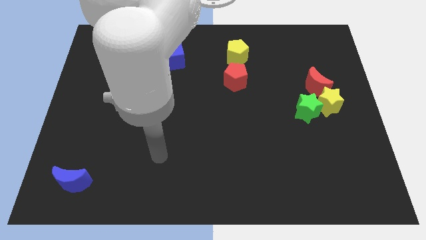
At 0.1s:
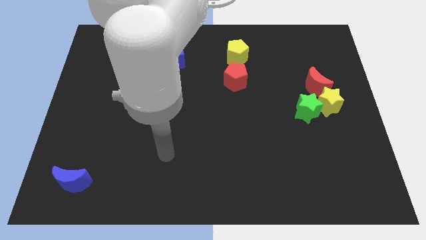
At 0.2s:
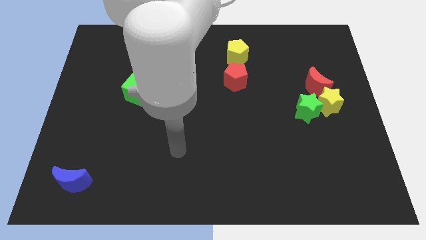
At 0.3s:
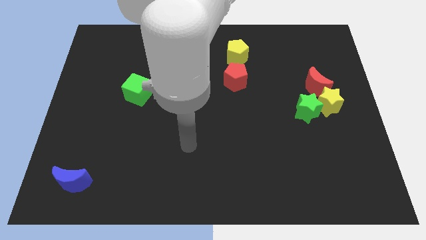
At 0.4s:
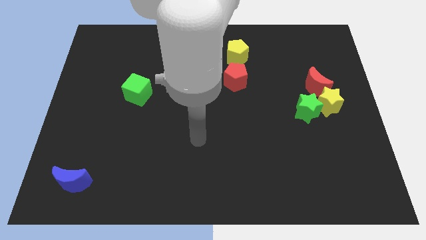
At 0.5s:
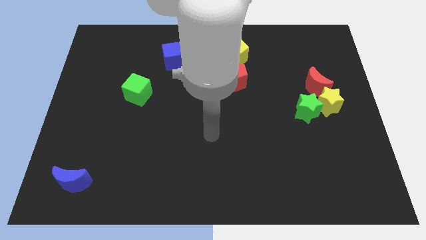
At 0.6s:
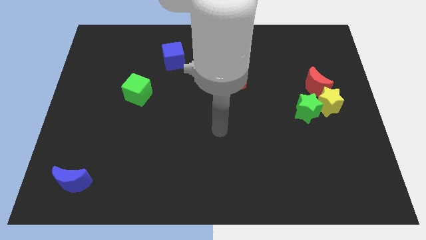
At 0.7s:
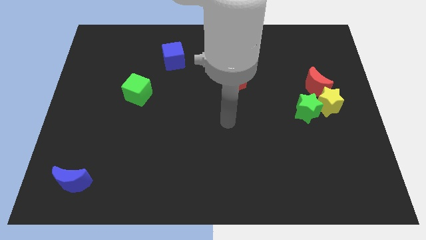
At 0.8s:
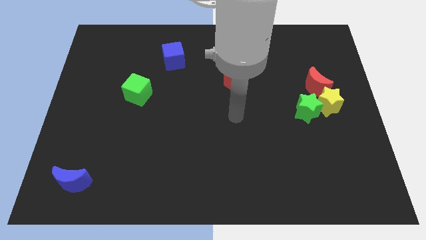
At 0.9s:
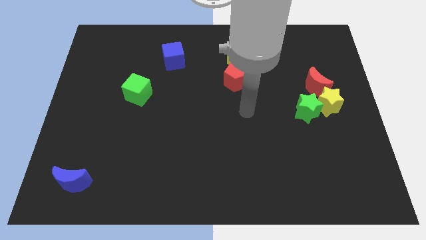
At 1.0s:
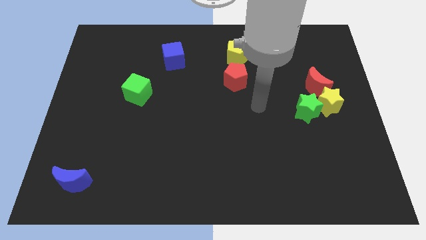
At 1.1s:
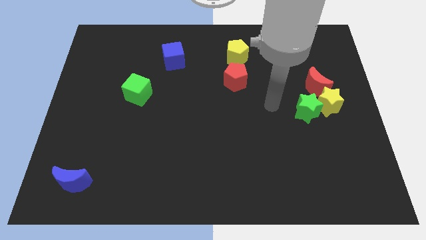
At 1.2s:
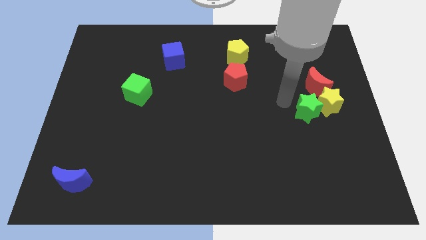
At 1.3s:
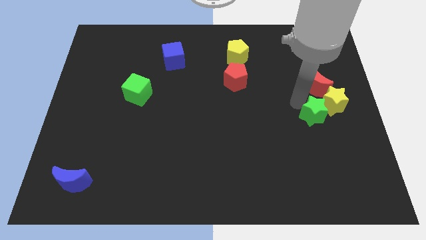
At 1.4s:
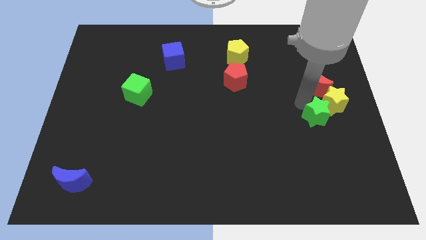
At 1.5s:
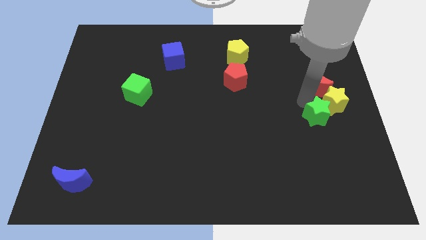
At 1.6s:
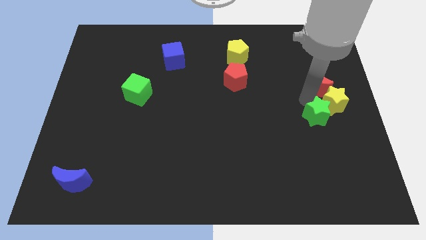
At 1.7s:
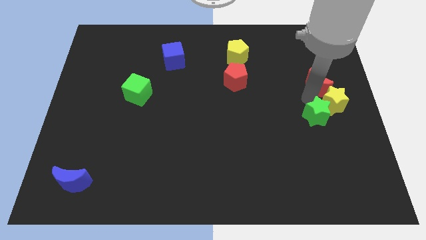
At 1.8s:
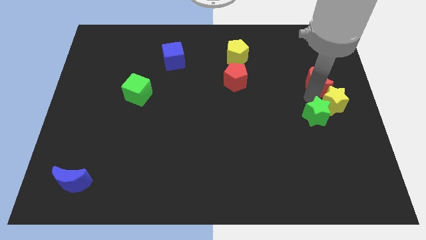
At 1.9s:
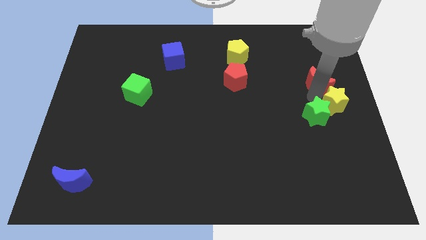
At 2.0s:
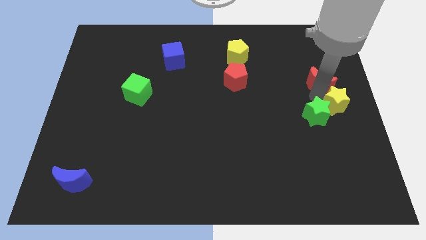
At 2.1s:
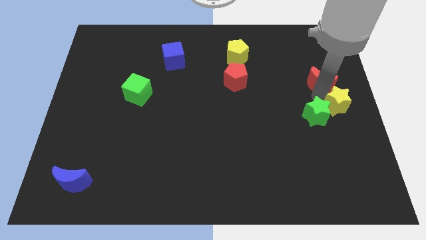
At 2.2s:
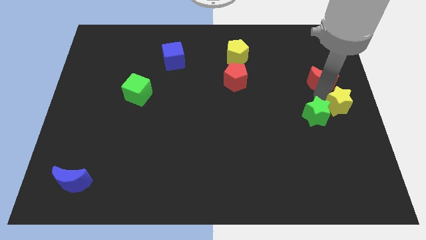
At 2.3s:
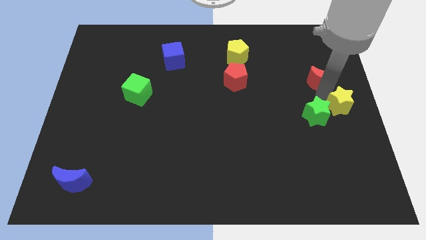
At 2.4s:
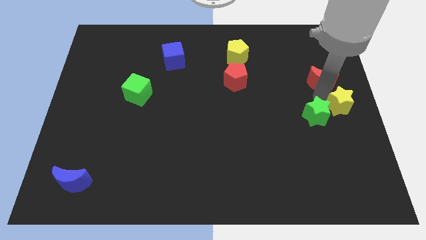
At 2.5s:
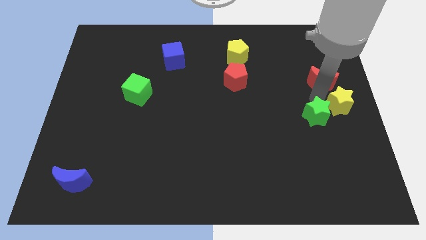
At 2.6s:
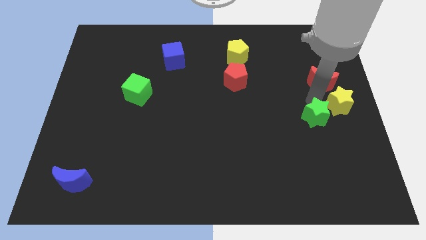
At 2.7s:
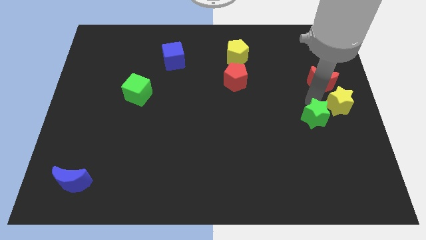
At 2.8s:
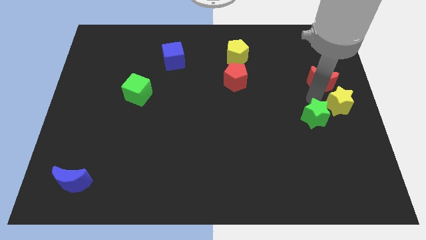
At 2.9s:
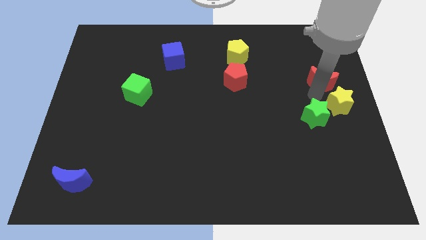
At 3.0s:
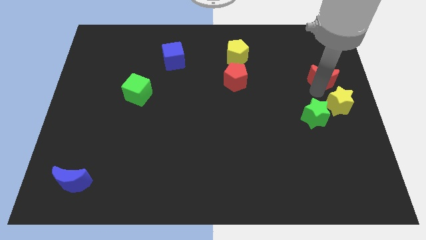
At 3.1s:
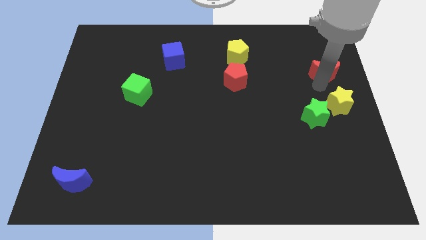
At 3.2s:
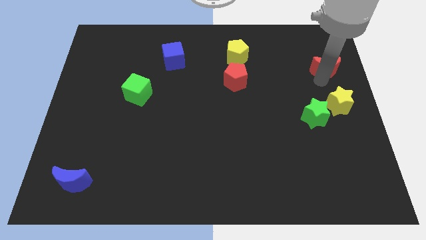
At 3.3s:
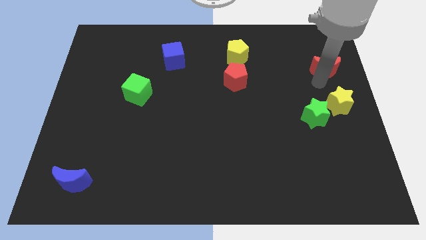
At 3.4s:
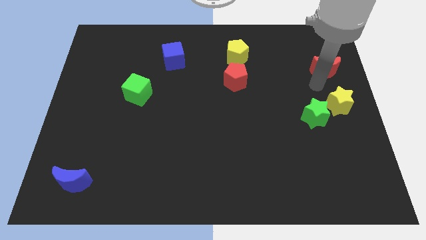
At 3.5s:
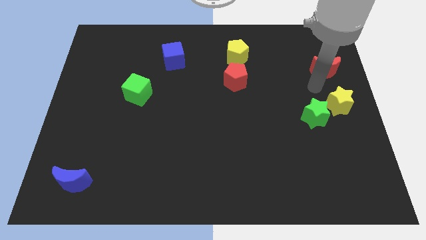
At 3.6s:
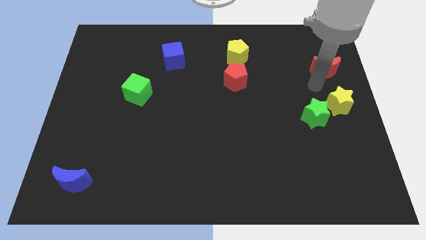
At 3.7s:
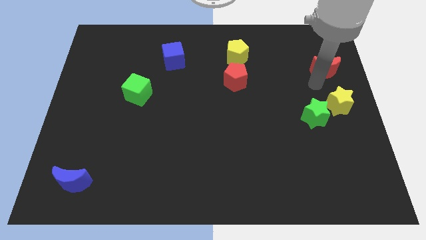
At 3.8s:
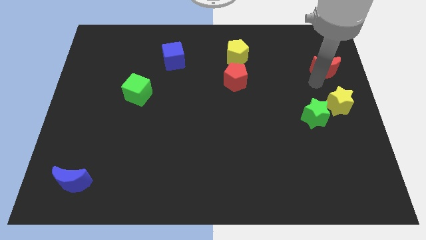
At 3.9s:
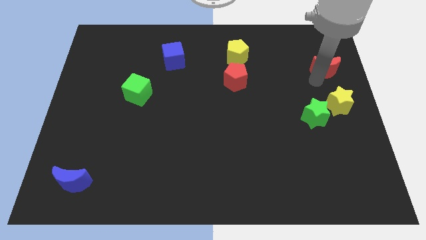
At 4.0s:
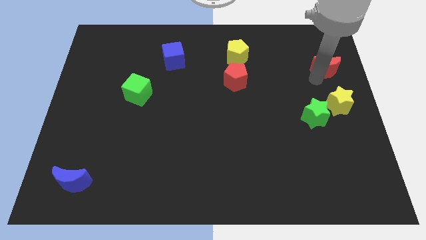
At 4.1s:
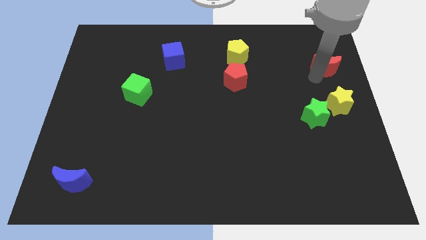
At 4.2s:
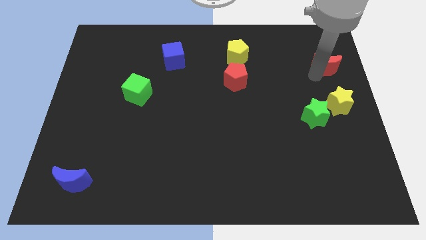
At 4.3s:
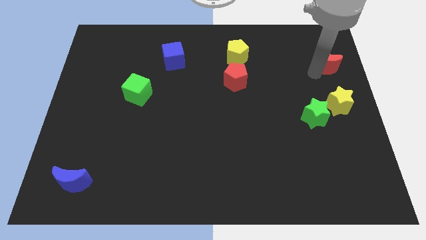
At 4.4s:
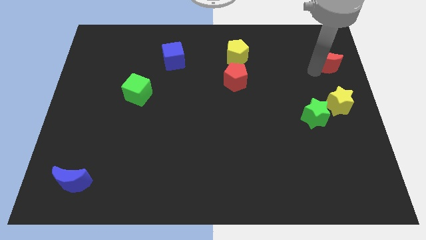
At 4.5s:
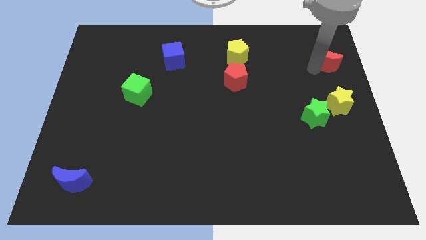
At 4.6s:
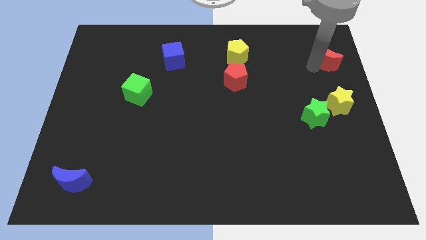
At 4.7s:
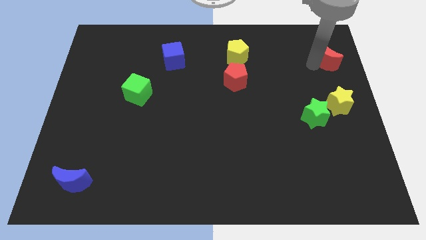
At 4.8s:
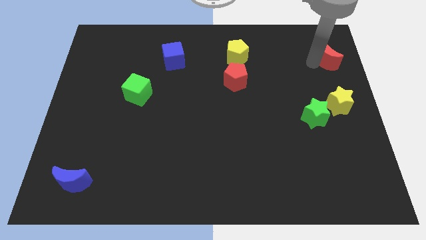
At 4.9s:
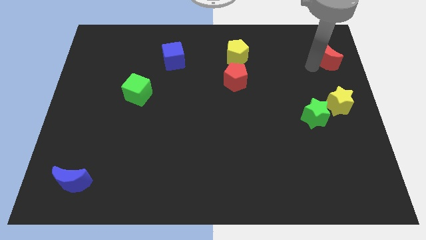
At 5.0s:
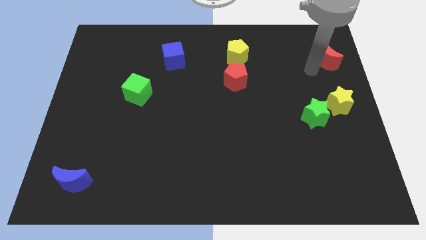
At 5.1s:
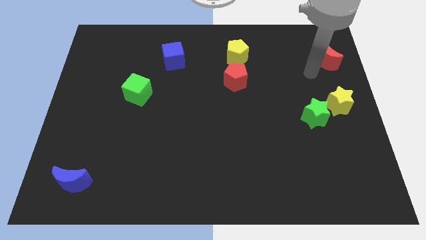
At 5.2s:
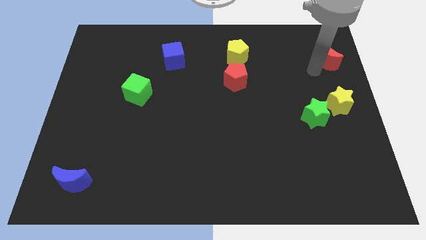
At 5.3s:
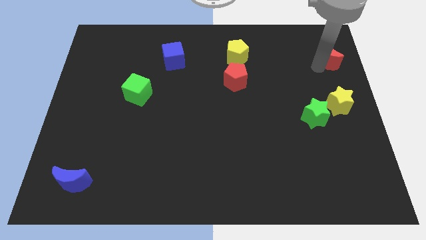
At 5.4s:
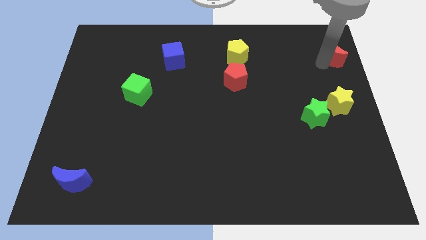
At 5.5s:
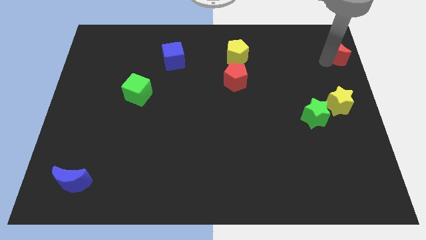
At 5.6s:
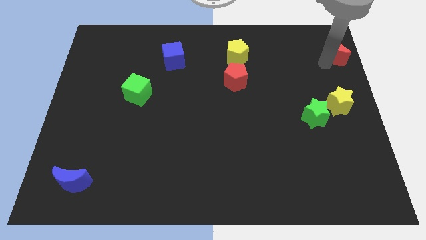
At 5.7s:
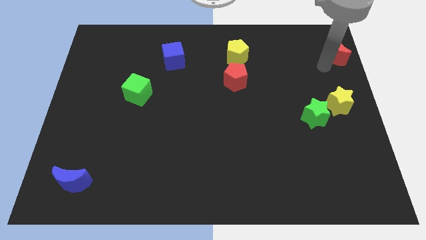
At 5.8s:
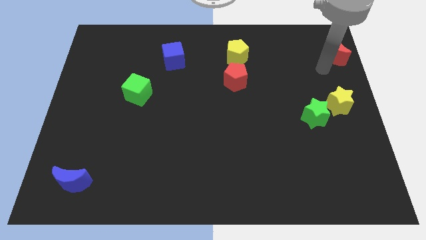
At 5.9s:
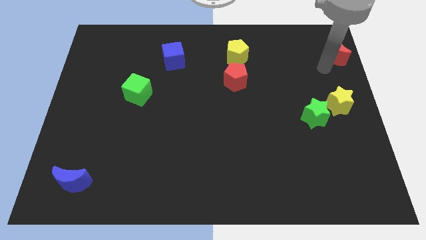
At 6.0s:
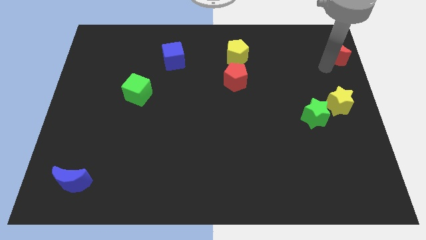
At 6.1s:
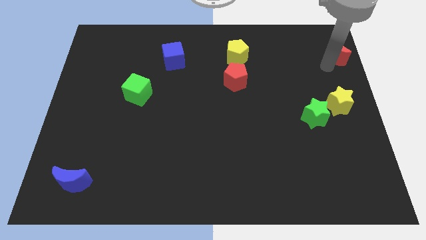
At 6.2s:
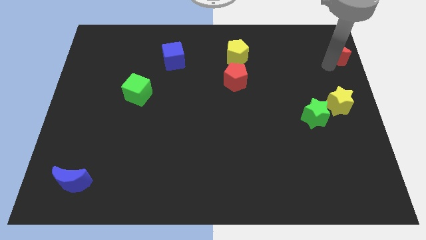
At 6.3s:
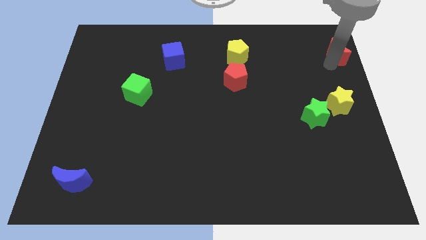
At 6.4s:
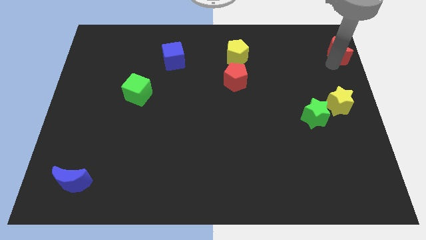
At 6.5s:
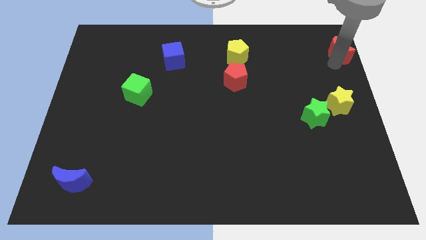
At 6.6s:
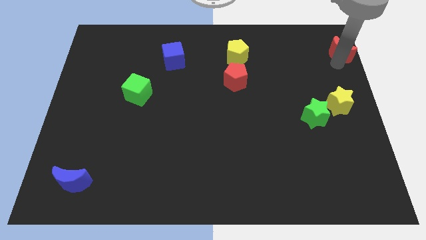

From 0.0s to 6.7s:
move the red moon to the upper right corner
